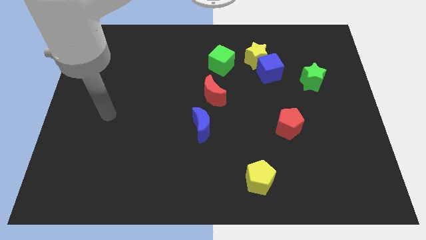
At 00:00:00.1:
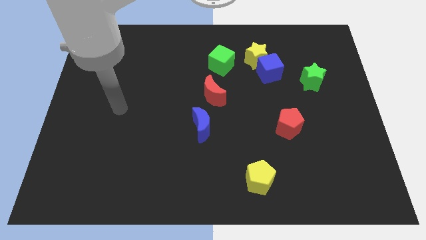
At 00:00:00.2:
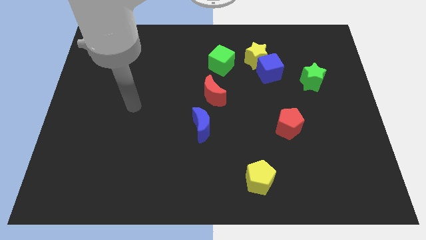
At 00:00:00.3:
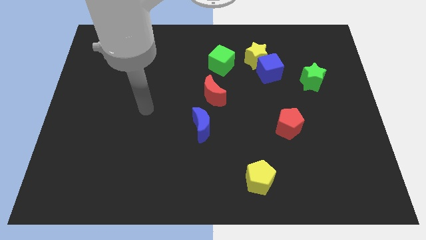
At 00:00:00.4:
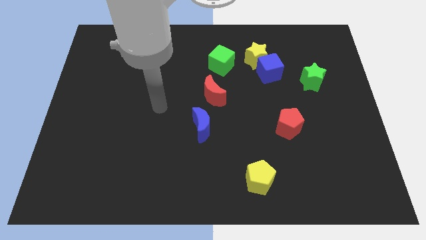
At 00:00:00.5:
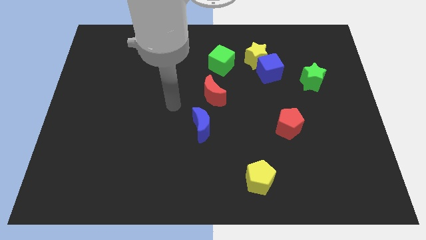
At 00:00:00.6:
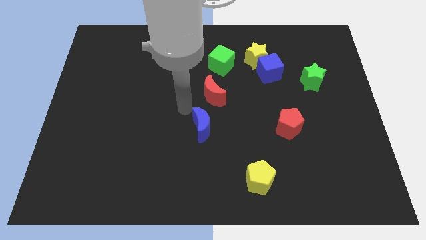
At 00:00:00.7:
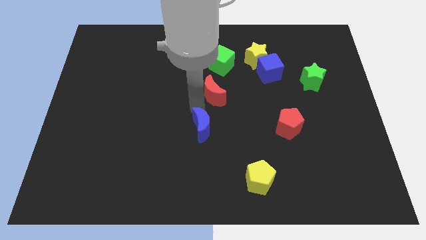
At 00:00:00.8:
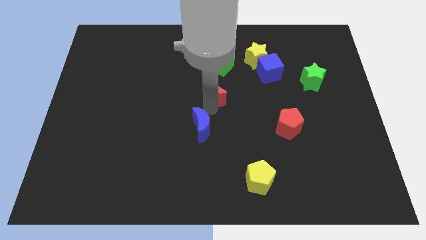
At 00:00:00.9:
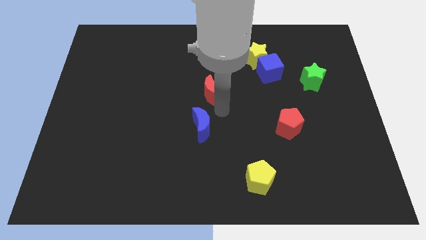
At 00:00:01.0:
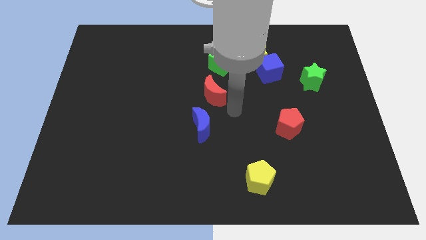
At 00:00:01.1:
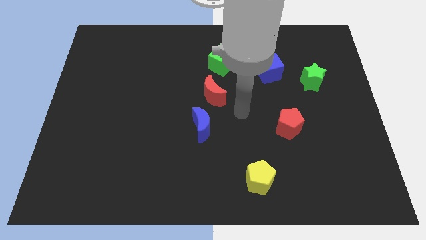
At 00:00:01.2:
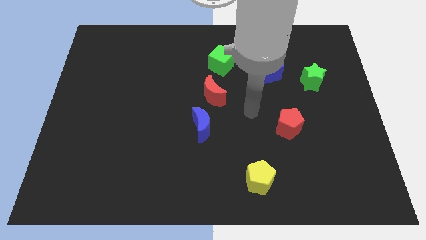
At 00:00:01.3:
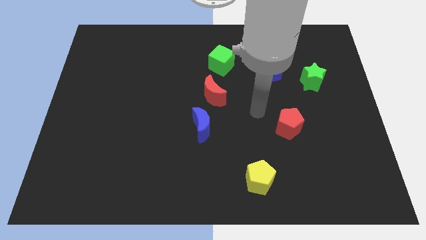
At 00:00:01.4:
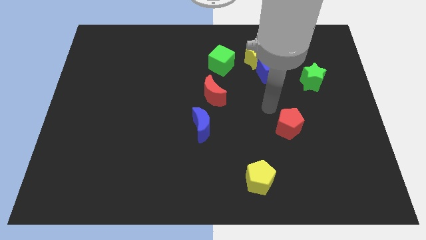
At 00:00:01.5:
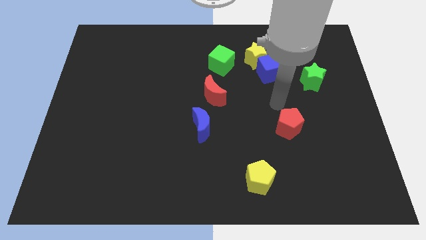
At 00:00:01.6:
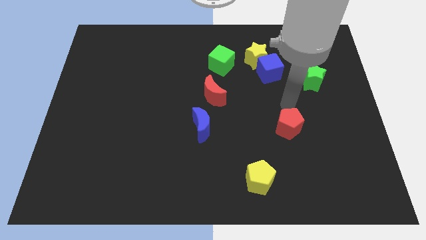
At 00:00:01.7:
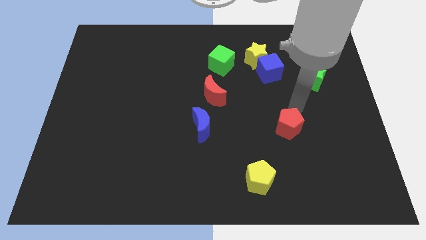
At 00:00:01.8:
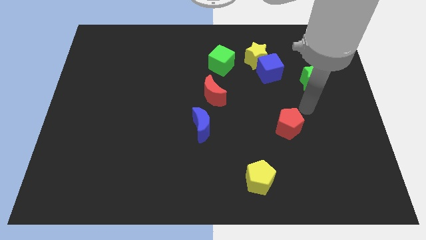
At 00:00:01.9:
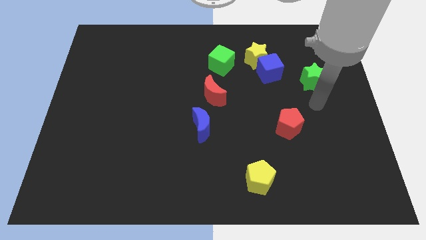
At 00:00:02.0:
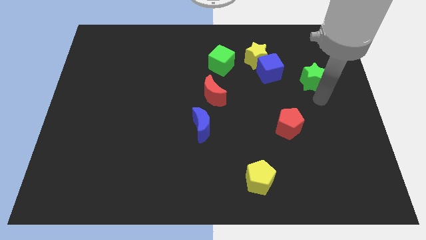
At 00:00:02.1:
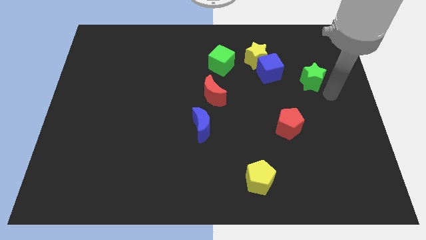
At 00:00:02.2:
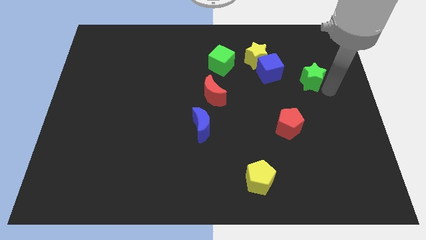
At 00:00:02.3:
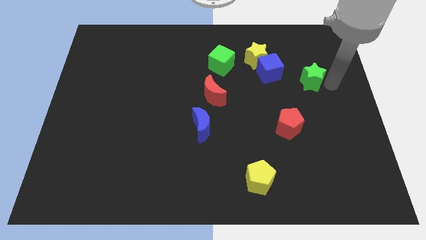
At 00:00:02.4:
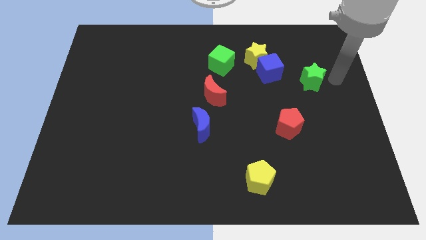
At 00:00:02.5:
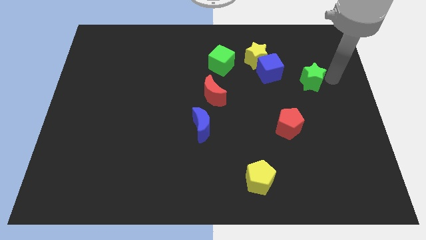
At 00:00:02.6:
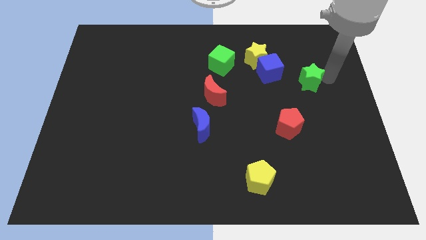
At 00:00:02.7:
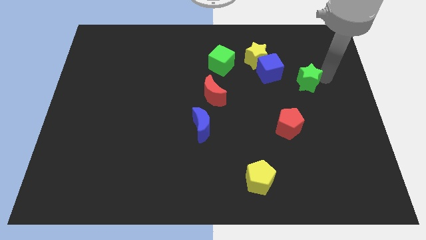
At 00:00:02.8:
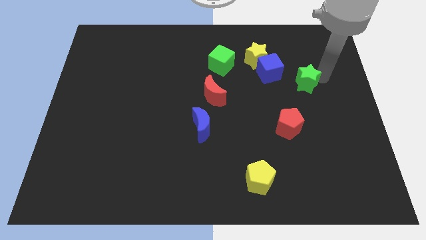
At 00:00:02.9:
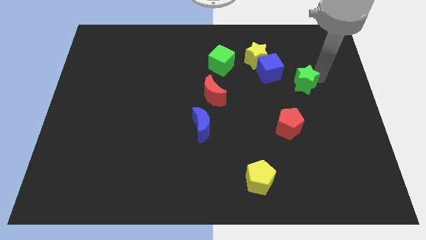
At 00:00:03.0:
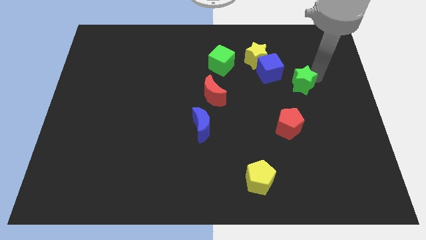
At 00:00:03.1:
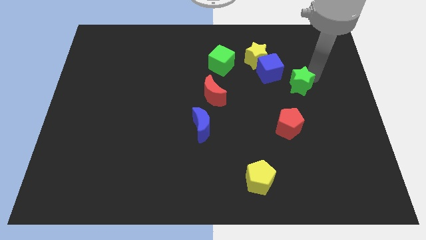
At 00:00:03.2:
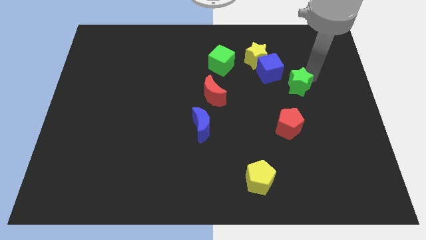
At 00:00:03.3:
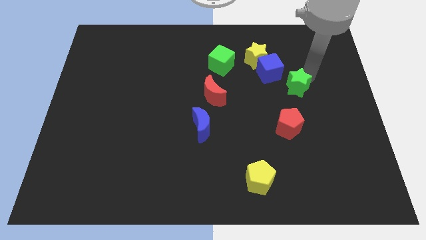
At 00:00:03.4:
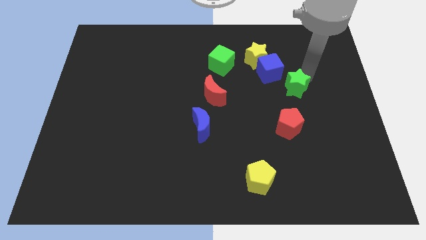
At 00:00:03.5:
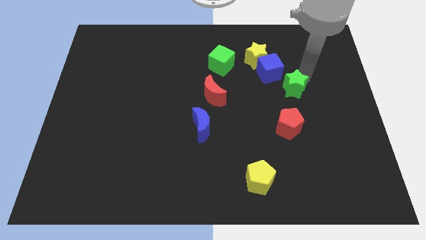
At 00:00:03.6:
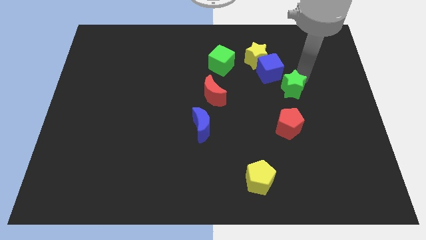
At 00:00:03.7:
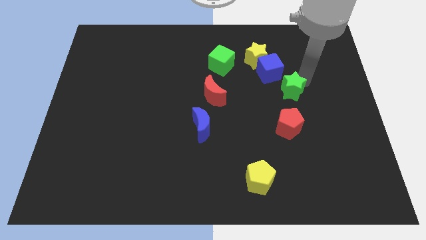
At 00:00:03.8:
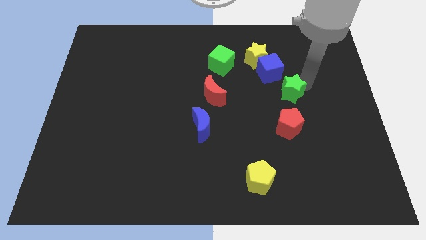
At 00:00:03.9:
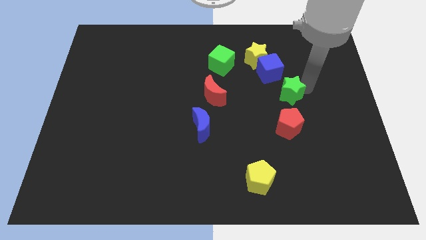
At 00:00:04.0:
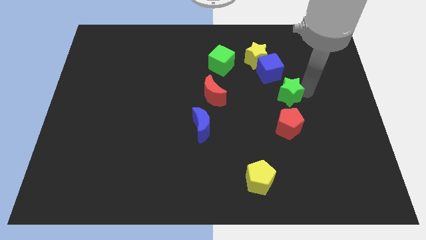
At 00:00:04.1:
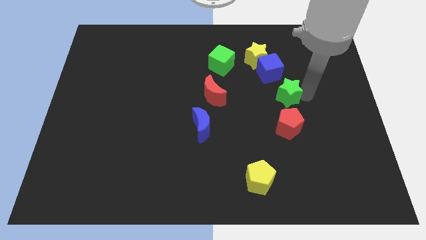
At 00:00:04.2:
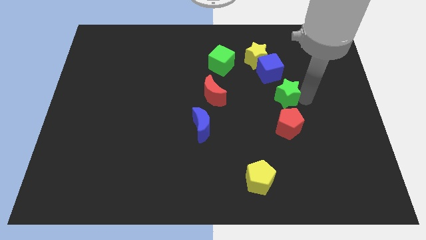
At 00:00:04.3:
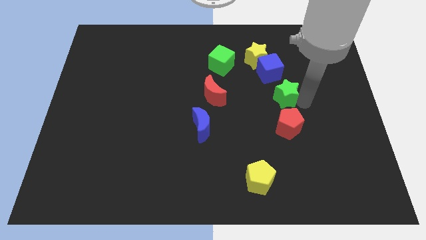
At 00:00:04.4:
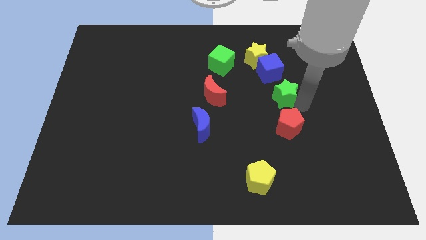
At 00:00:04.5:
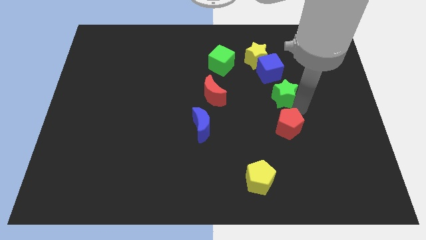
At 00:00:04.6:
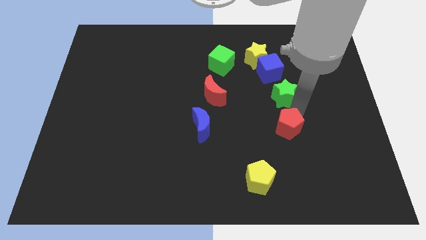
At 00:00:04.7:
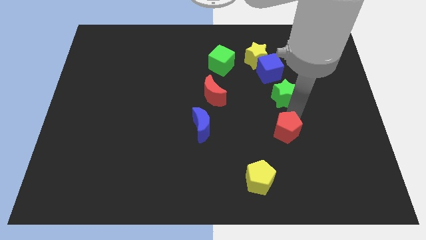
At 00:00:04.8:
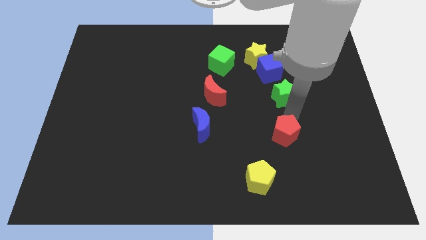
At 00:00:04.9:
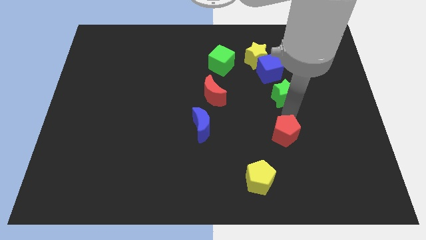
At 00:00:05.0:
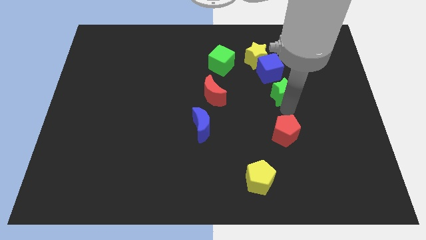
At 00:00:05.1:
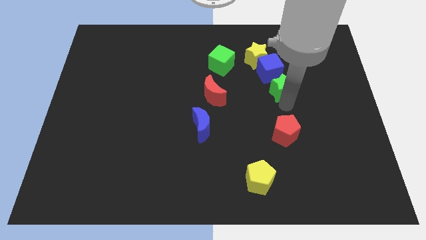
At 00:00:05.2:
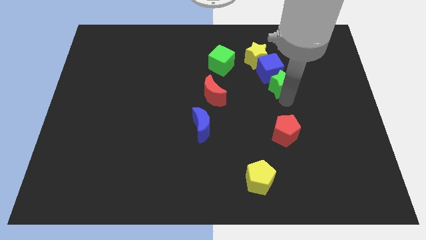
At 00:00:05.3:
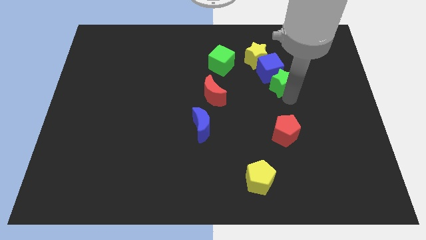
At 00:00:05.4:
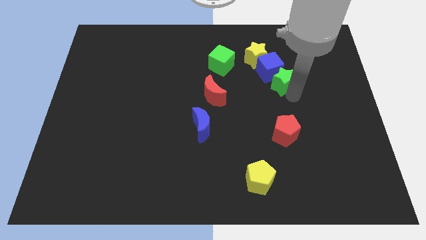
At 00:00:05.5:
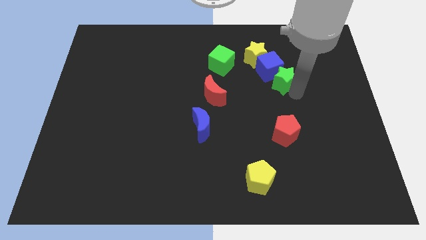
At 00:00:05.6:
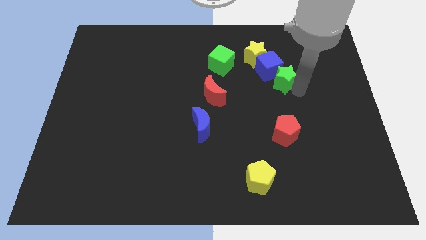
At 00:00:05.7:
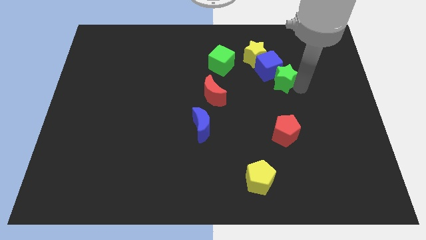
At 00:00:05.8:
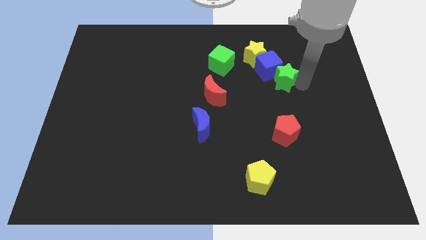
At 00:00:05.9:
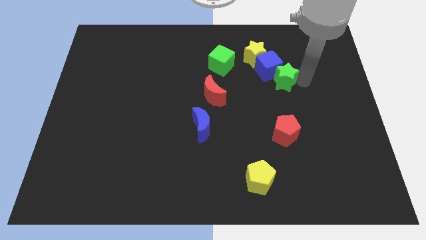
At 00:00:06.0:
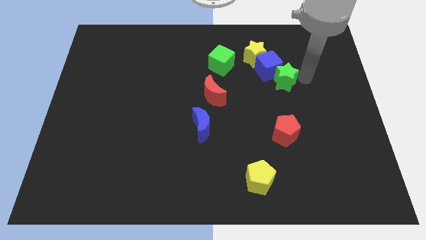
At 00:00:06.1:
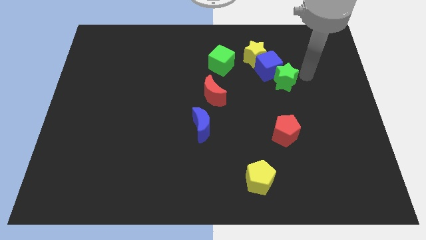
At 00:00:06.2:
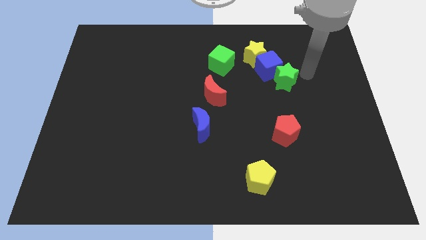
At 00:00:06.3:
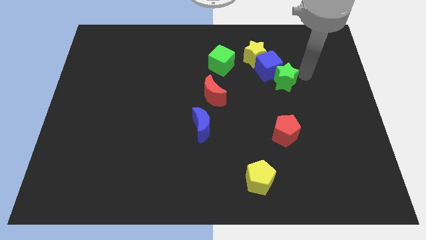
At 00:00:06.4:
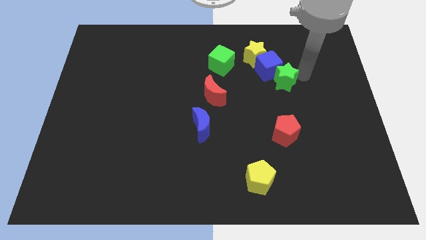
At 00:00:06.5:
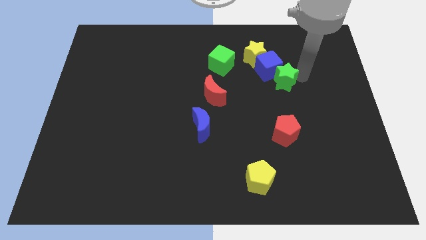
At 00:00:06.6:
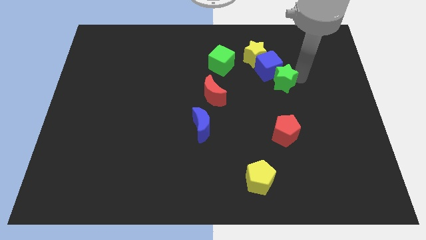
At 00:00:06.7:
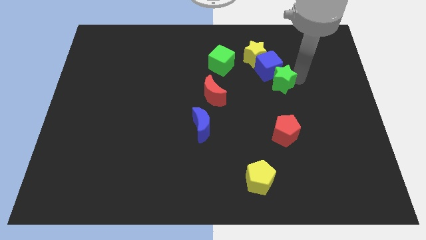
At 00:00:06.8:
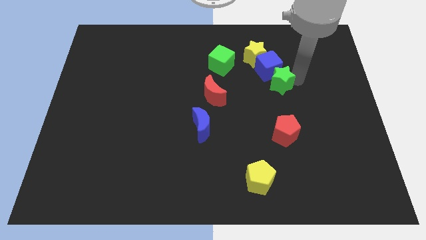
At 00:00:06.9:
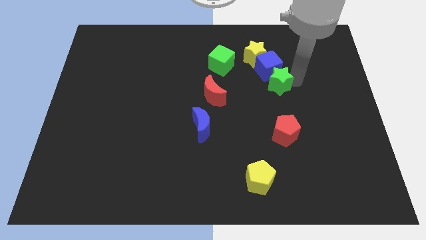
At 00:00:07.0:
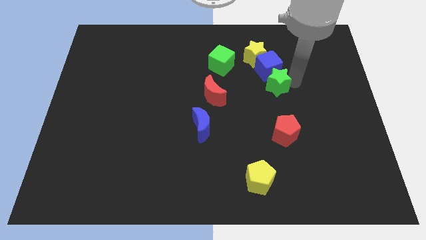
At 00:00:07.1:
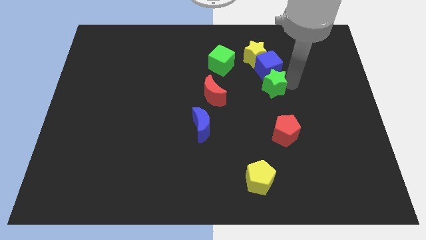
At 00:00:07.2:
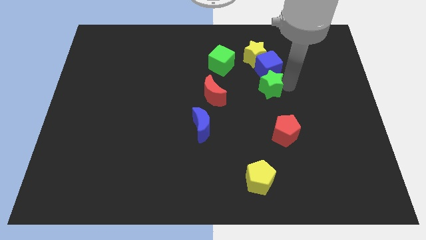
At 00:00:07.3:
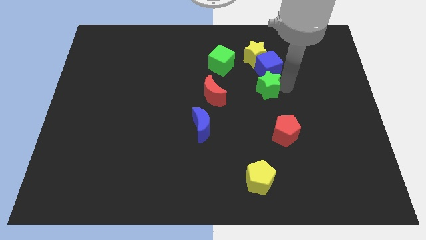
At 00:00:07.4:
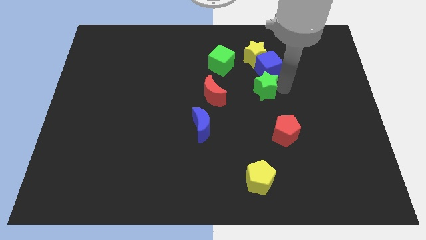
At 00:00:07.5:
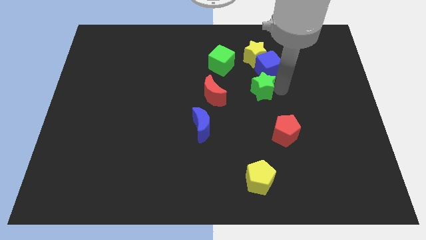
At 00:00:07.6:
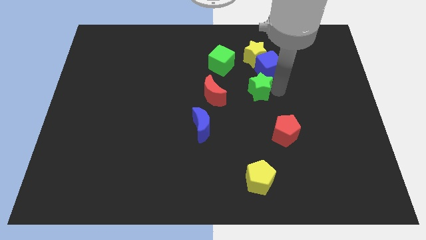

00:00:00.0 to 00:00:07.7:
slide the green star to the bottom right side of the green cube
